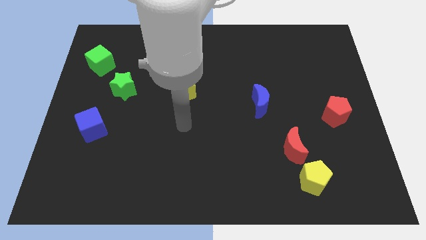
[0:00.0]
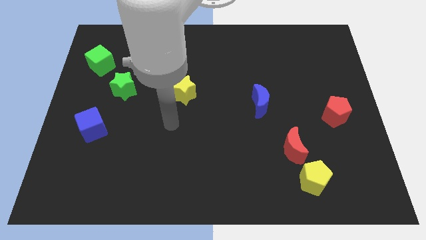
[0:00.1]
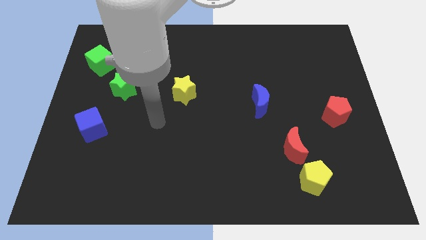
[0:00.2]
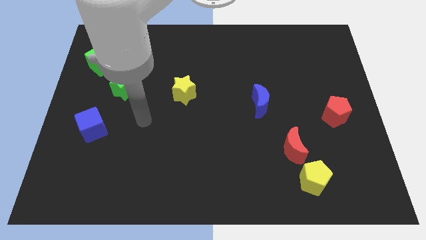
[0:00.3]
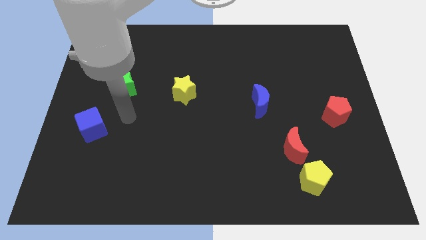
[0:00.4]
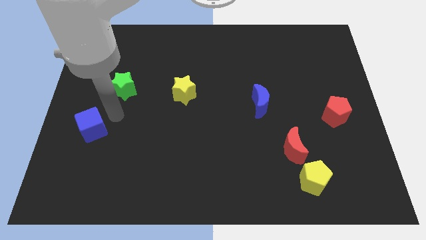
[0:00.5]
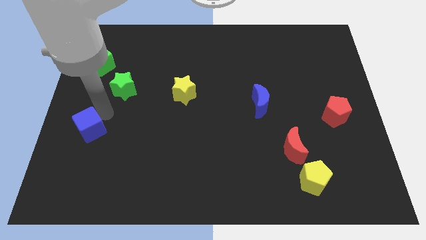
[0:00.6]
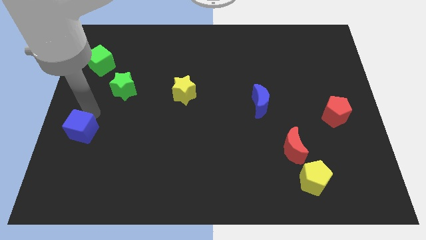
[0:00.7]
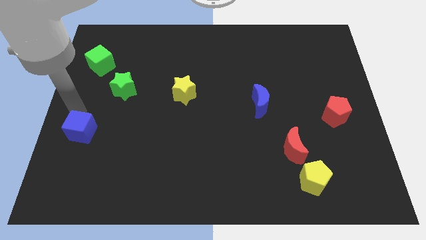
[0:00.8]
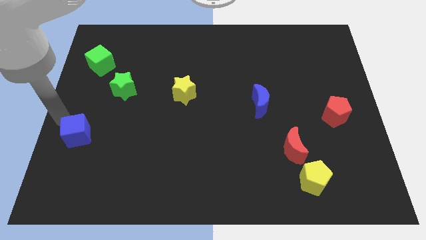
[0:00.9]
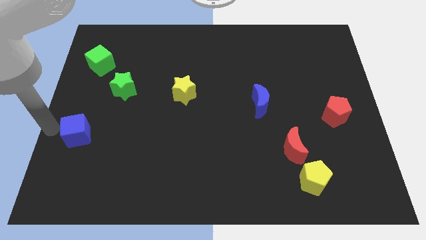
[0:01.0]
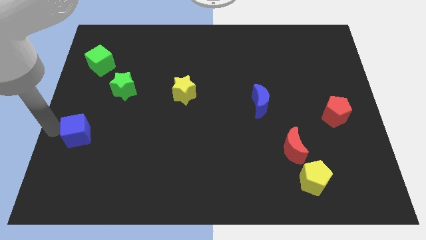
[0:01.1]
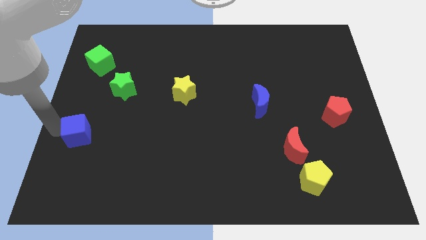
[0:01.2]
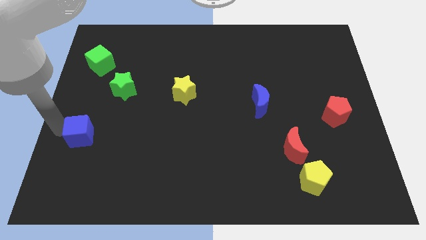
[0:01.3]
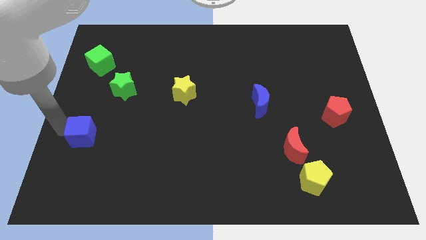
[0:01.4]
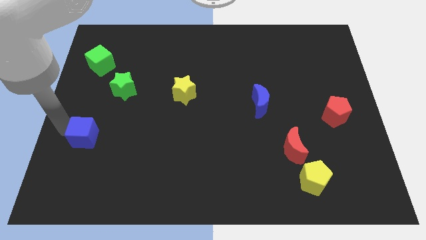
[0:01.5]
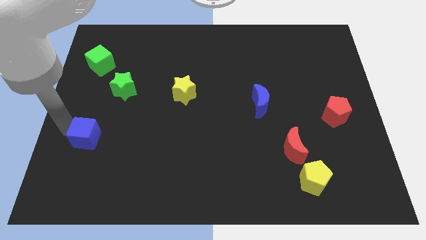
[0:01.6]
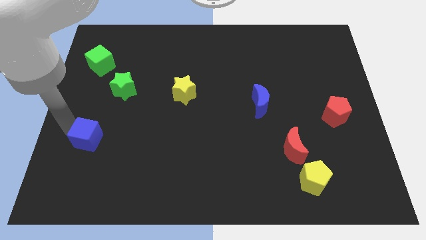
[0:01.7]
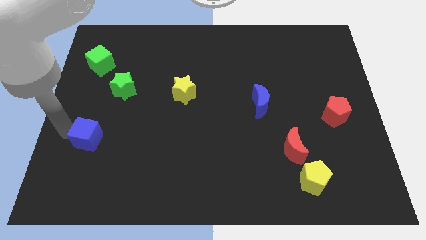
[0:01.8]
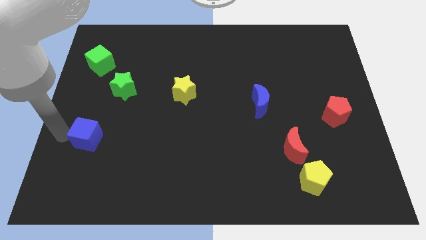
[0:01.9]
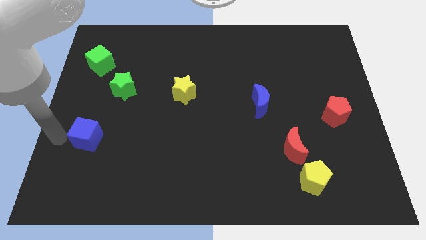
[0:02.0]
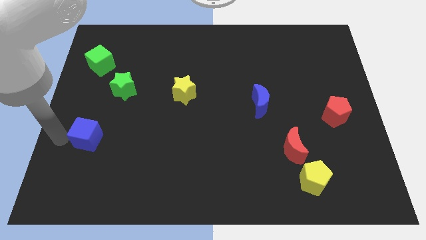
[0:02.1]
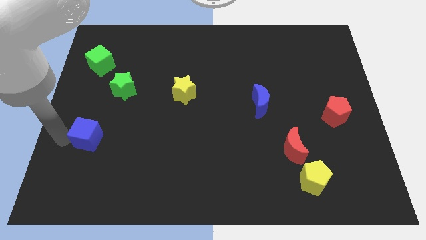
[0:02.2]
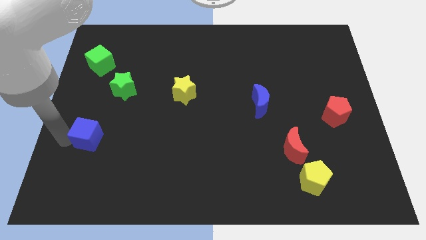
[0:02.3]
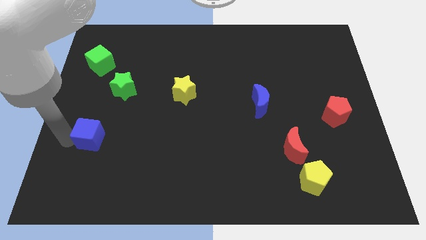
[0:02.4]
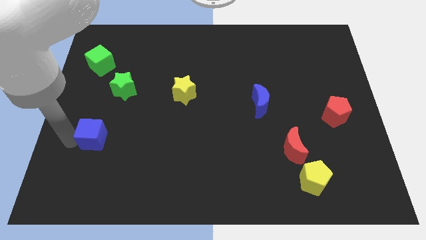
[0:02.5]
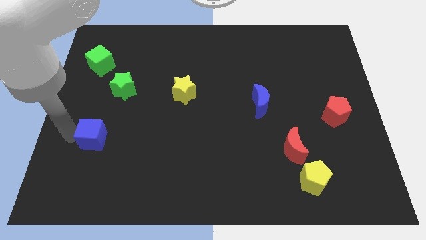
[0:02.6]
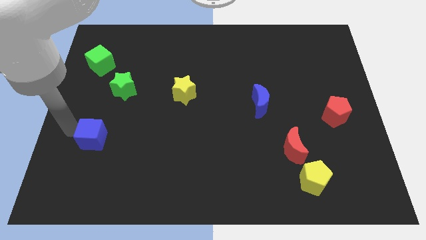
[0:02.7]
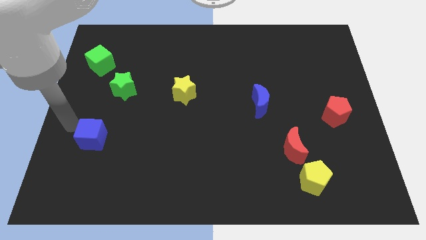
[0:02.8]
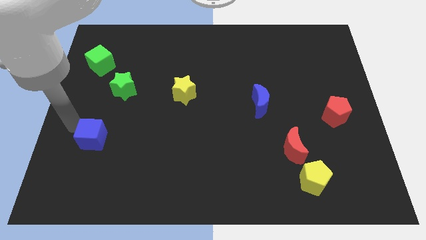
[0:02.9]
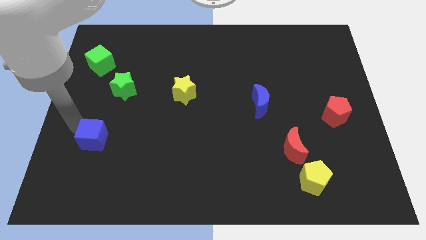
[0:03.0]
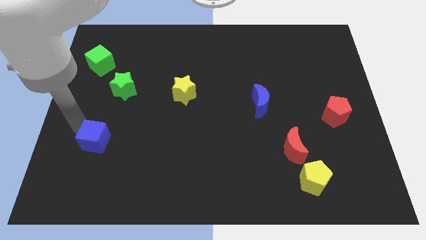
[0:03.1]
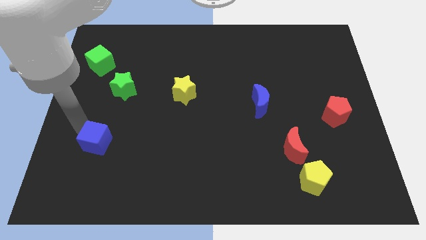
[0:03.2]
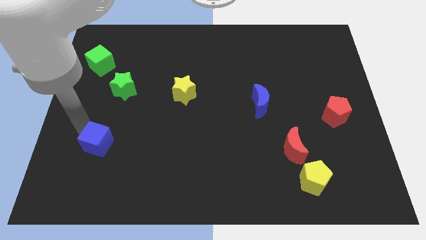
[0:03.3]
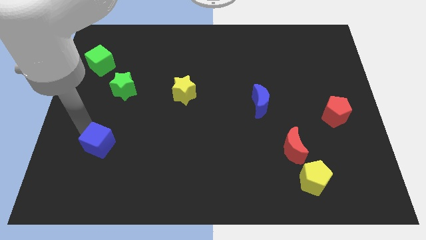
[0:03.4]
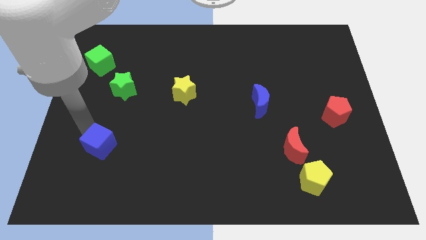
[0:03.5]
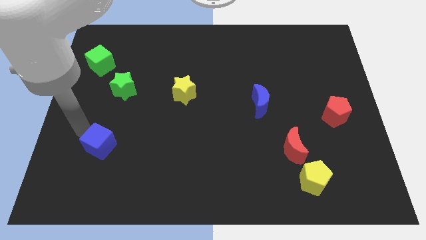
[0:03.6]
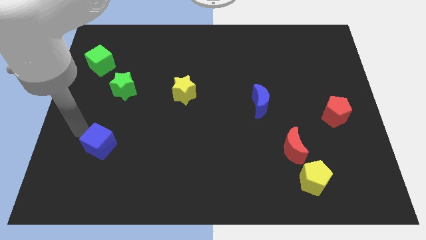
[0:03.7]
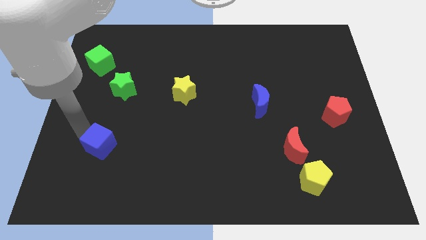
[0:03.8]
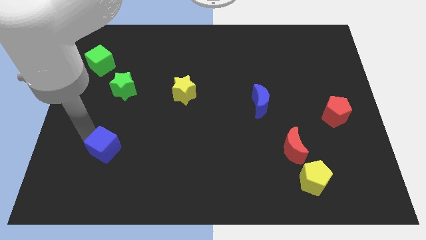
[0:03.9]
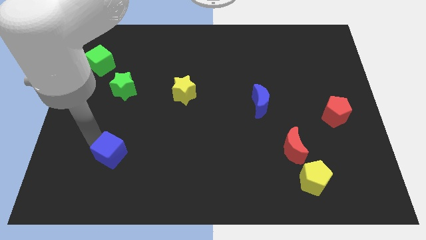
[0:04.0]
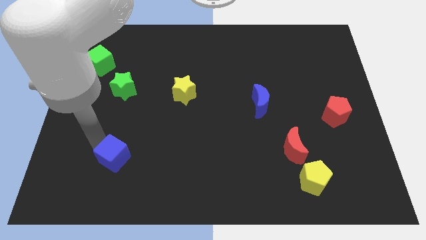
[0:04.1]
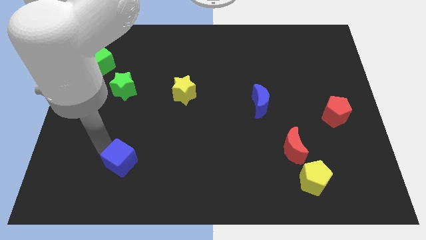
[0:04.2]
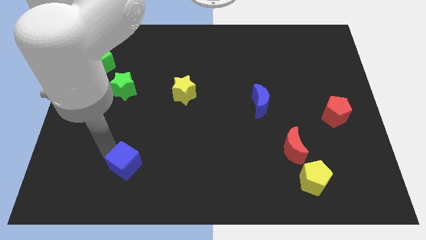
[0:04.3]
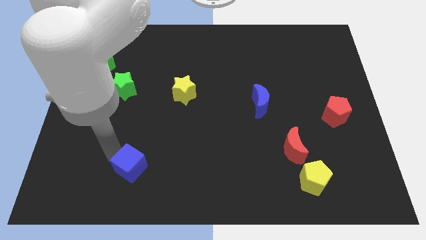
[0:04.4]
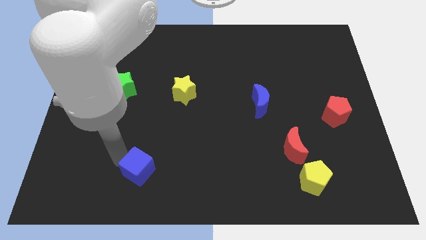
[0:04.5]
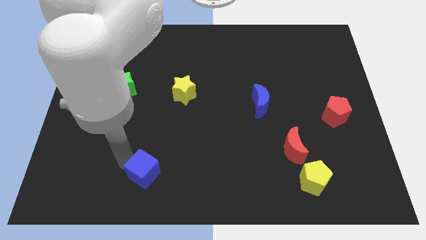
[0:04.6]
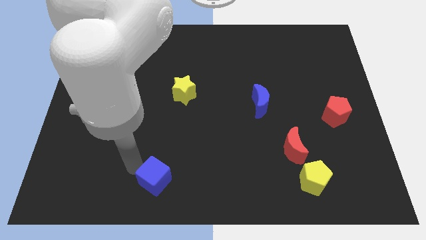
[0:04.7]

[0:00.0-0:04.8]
slide the blue cube to the bottom
